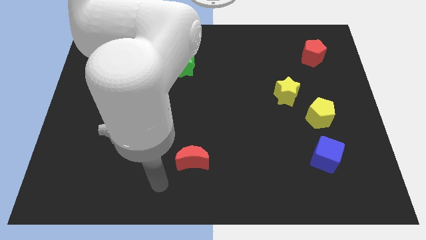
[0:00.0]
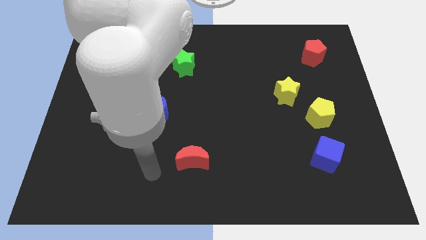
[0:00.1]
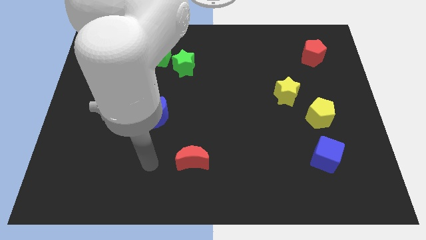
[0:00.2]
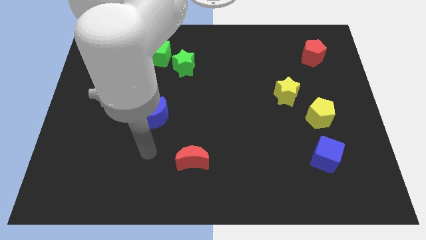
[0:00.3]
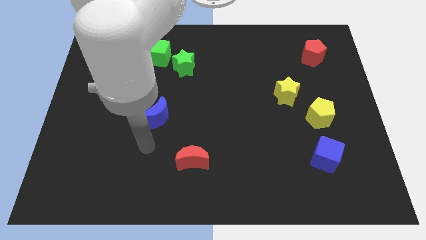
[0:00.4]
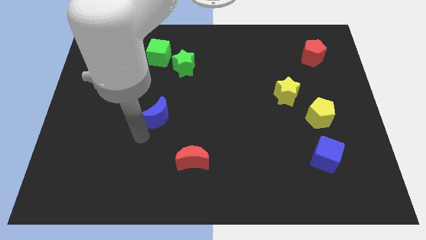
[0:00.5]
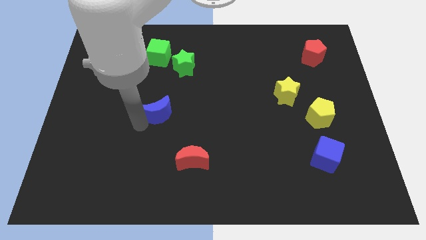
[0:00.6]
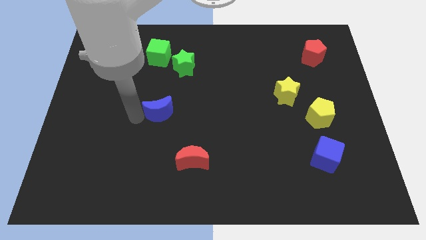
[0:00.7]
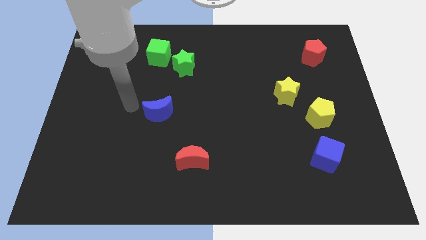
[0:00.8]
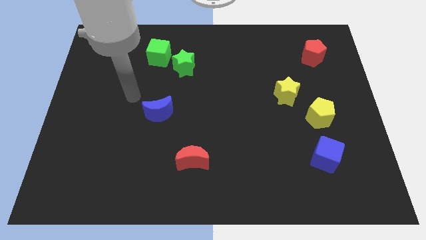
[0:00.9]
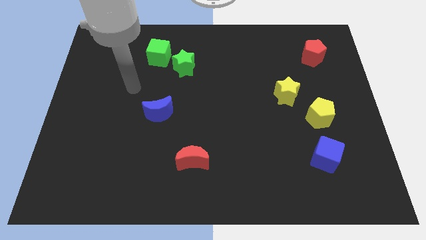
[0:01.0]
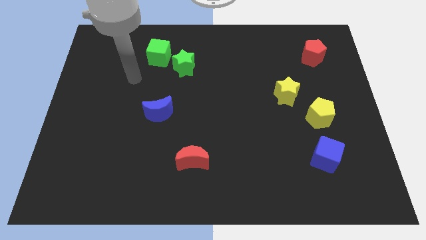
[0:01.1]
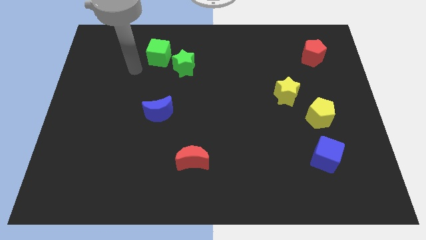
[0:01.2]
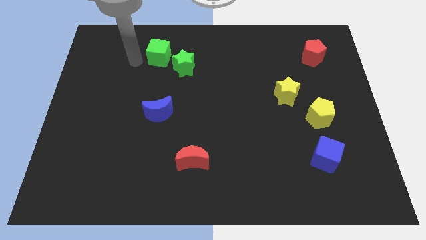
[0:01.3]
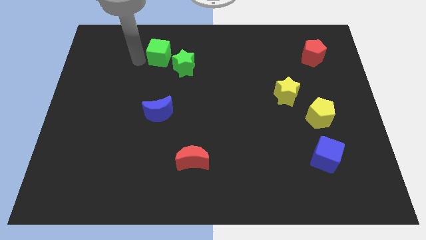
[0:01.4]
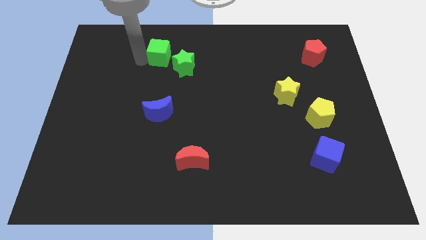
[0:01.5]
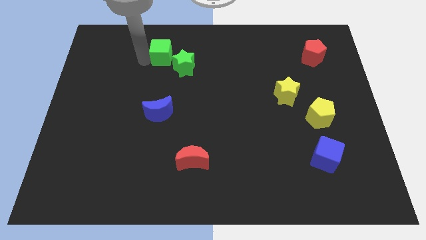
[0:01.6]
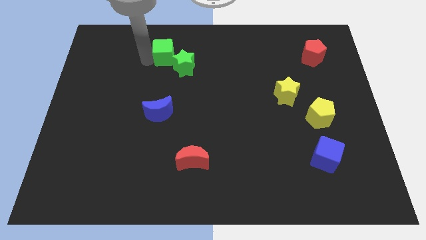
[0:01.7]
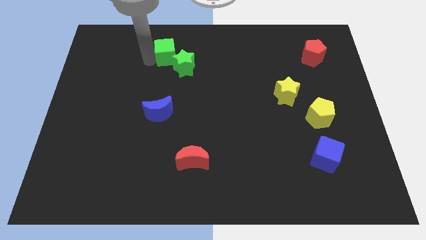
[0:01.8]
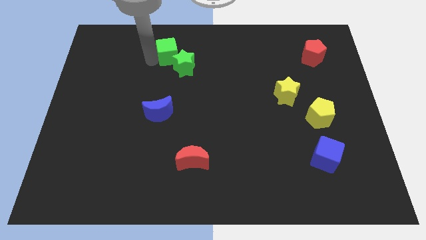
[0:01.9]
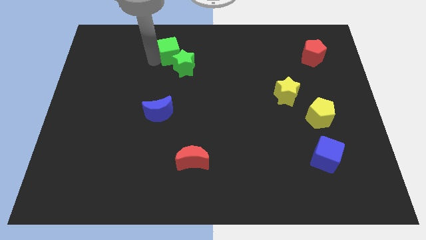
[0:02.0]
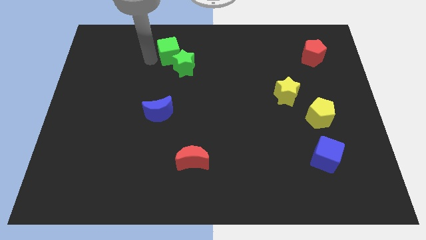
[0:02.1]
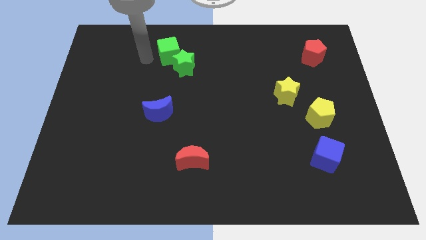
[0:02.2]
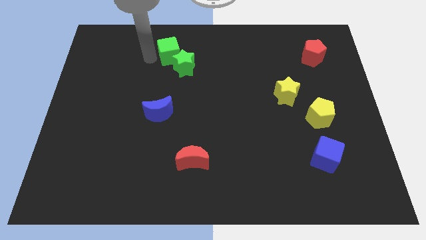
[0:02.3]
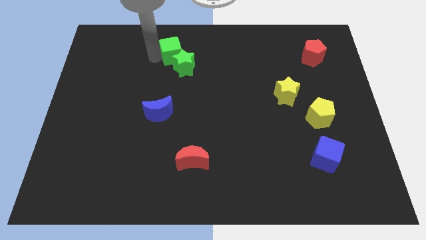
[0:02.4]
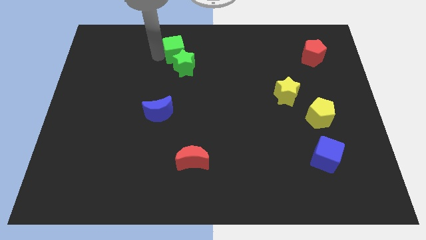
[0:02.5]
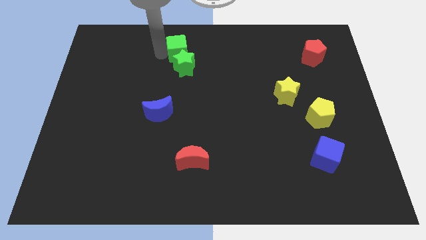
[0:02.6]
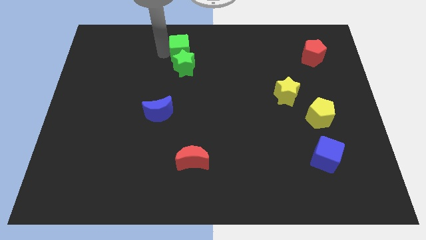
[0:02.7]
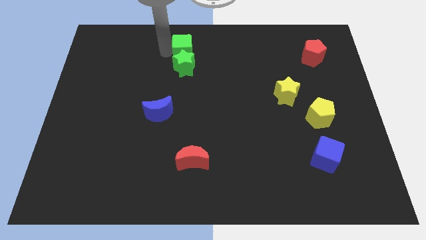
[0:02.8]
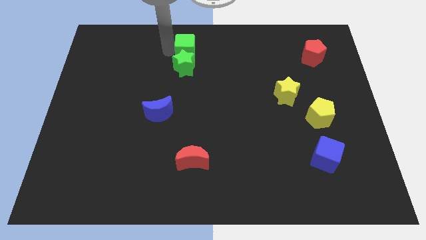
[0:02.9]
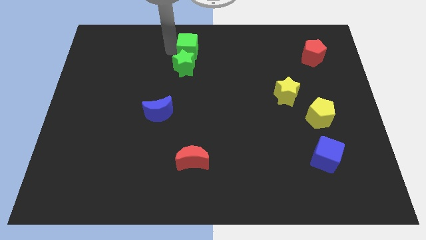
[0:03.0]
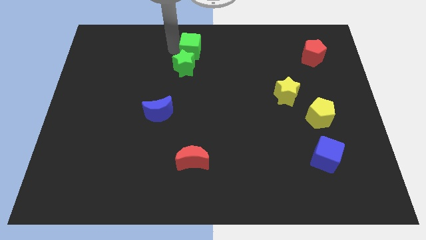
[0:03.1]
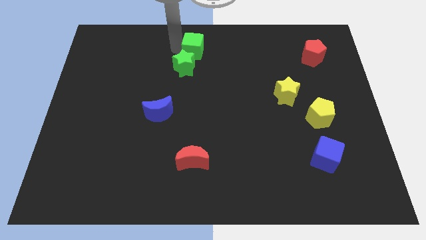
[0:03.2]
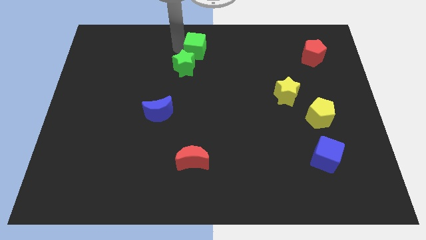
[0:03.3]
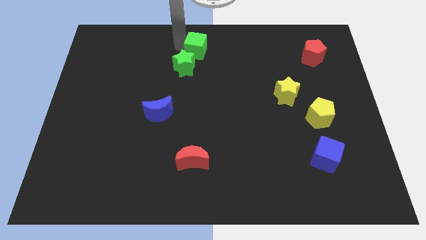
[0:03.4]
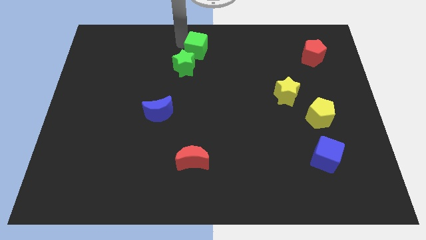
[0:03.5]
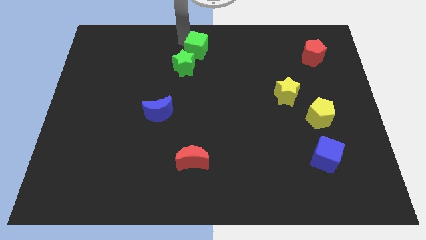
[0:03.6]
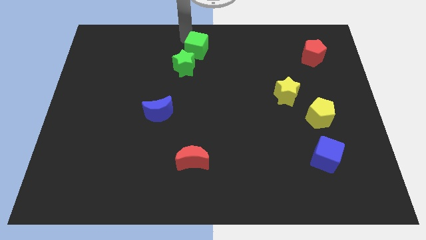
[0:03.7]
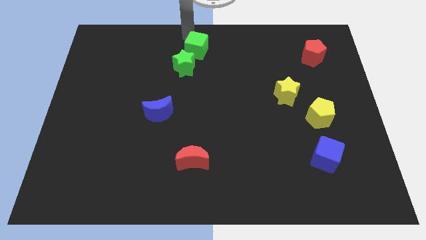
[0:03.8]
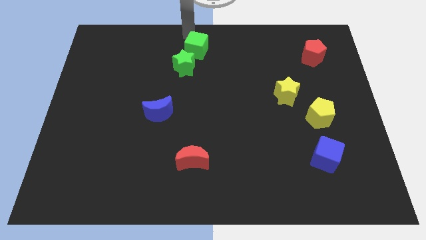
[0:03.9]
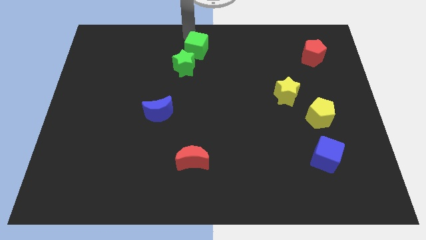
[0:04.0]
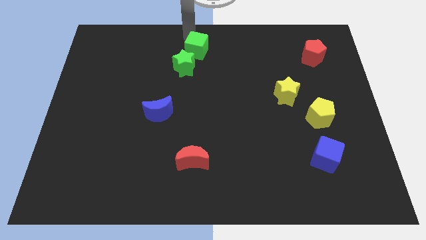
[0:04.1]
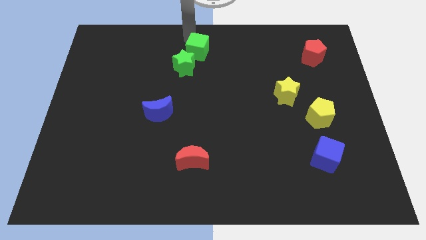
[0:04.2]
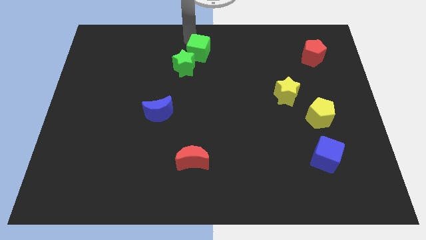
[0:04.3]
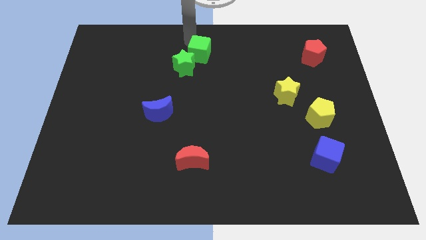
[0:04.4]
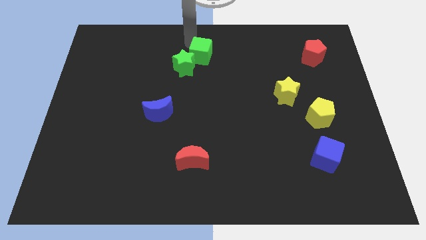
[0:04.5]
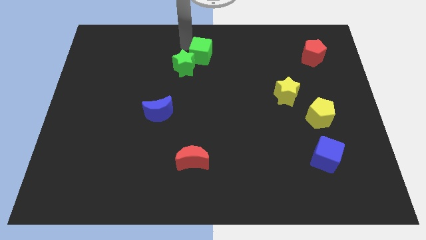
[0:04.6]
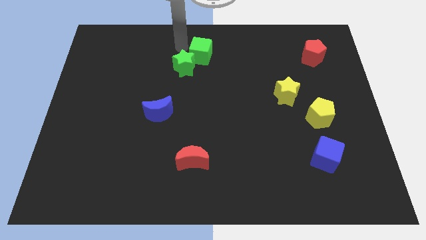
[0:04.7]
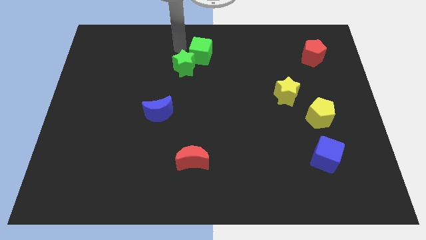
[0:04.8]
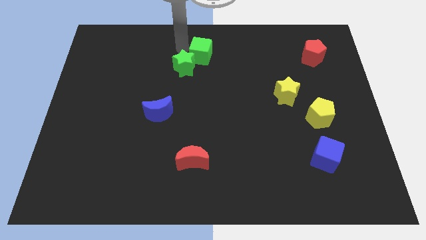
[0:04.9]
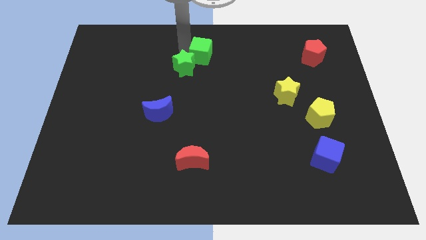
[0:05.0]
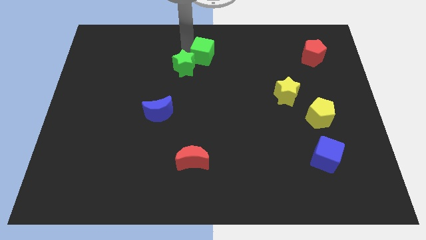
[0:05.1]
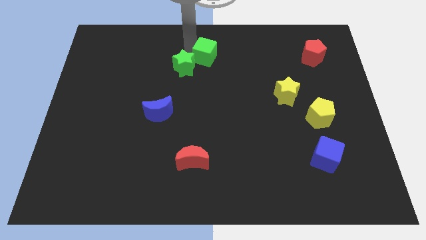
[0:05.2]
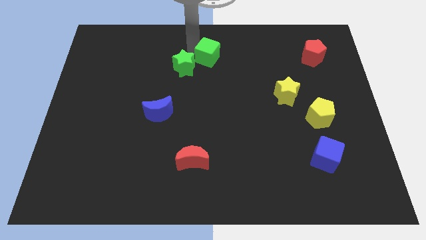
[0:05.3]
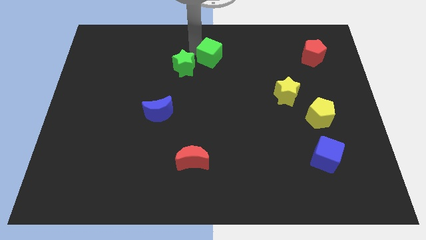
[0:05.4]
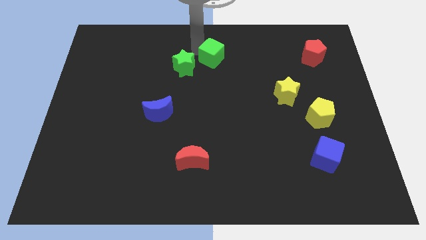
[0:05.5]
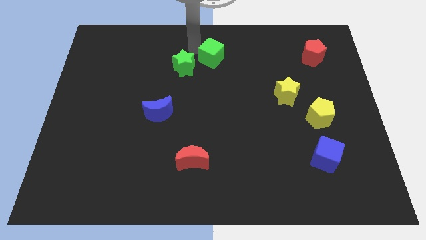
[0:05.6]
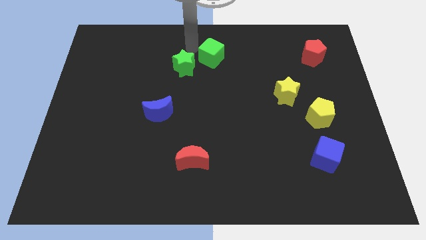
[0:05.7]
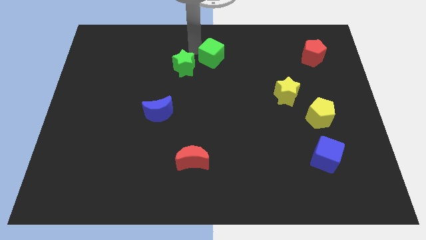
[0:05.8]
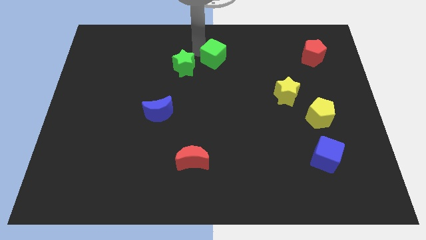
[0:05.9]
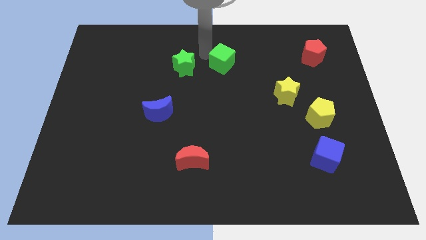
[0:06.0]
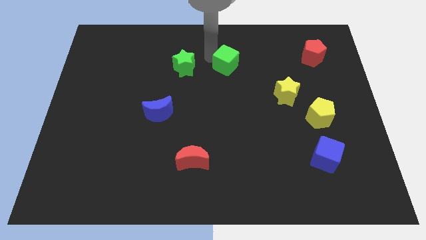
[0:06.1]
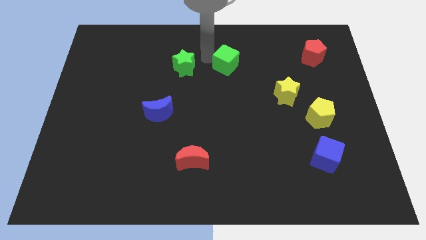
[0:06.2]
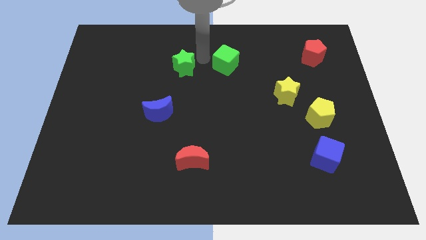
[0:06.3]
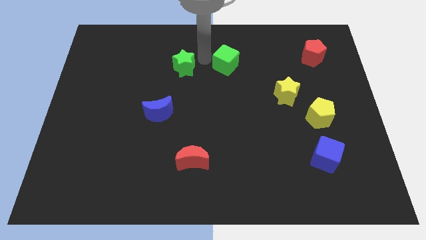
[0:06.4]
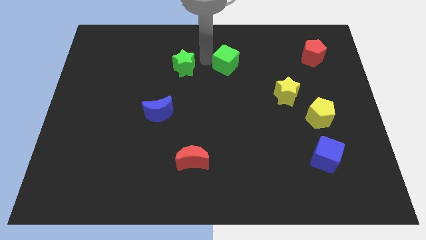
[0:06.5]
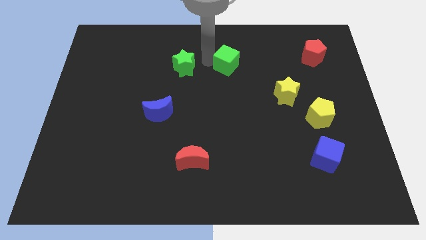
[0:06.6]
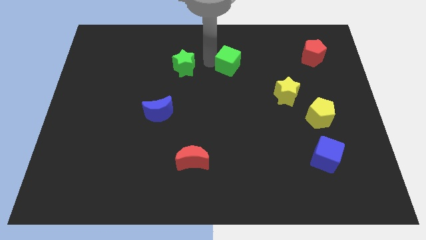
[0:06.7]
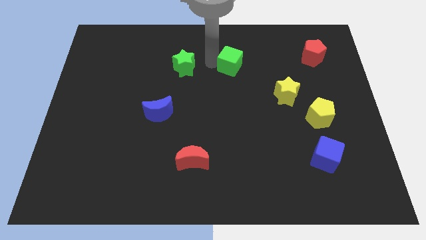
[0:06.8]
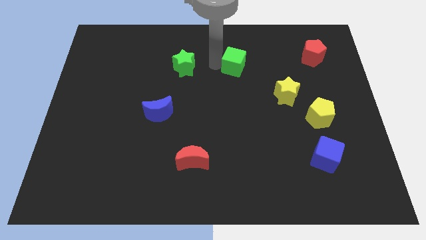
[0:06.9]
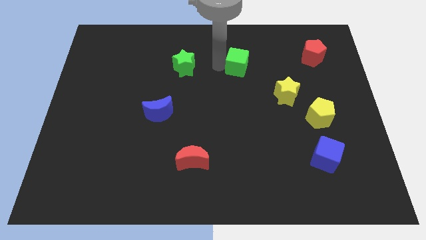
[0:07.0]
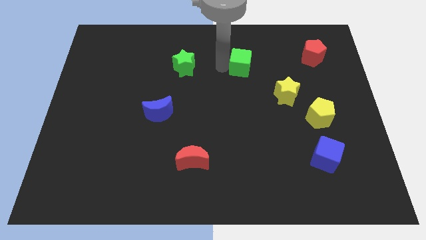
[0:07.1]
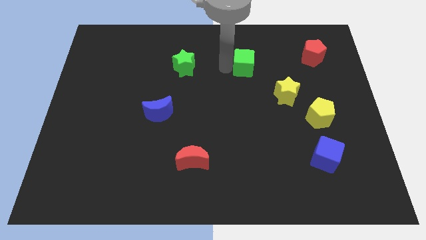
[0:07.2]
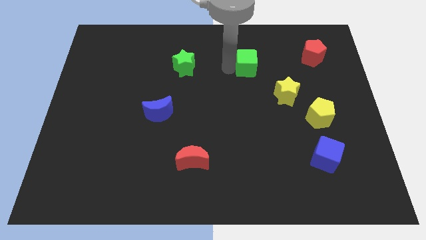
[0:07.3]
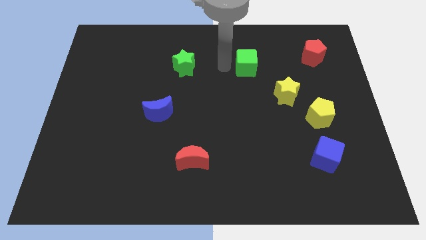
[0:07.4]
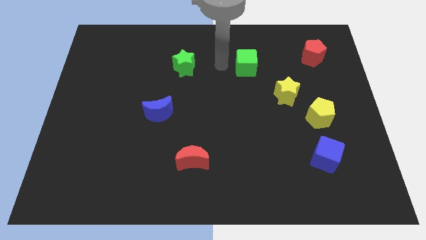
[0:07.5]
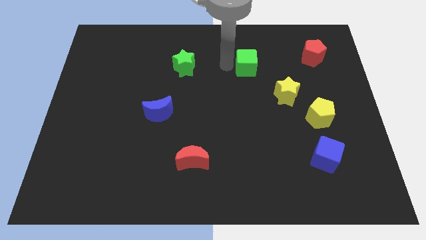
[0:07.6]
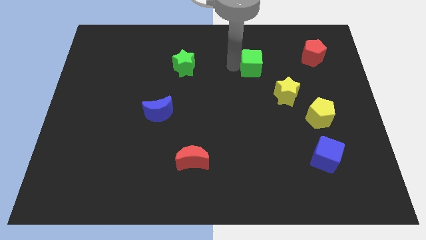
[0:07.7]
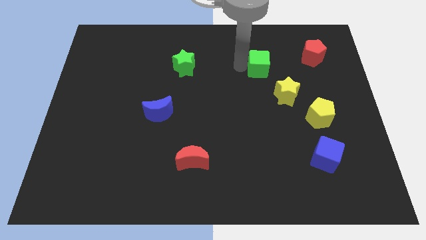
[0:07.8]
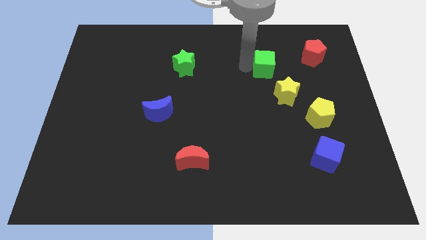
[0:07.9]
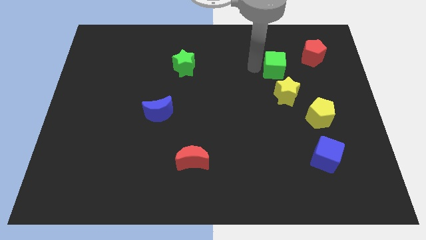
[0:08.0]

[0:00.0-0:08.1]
move the green cube to the bottom left of the red pentagon
